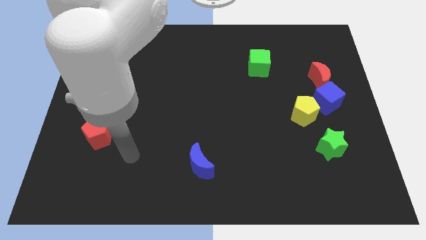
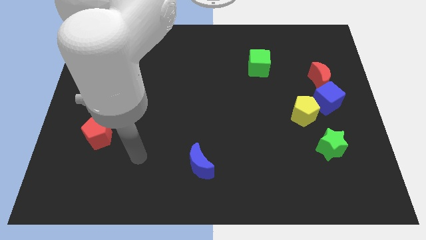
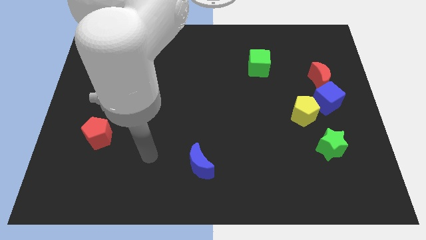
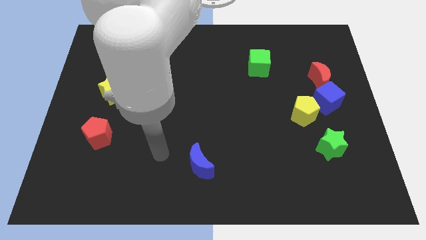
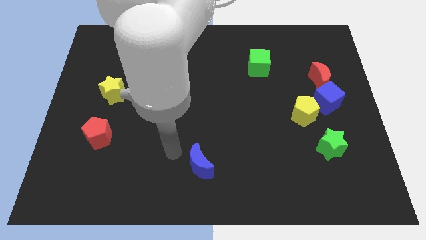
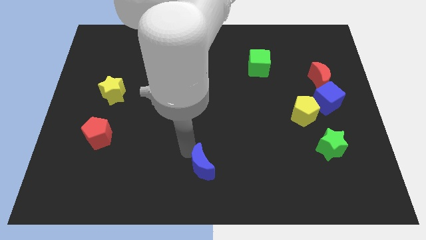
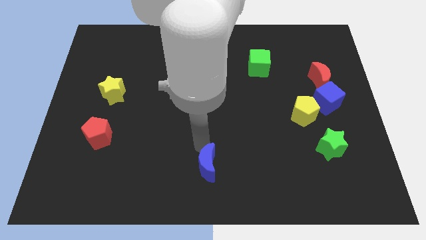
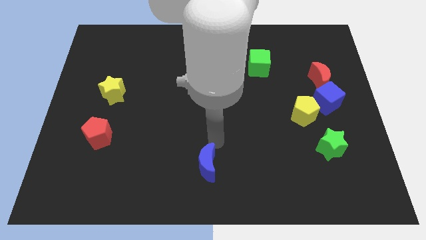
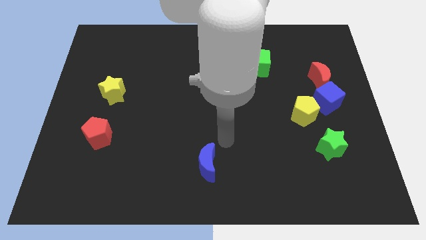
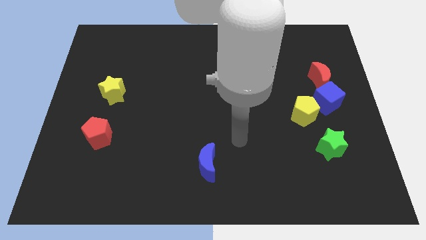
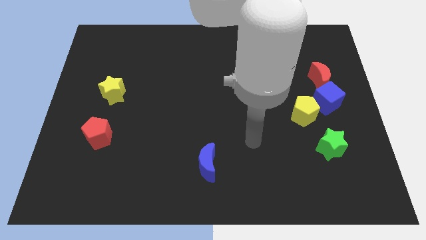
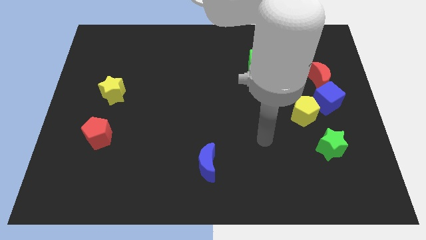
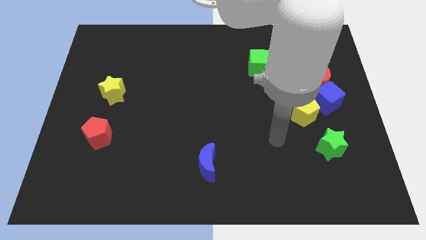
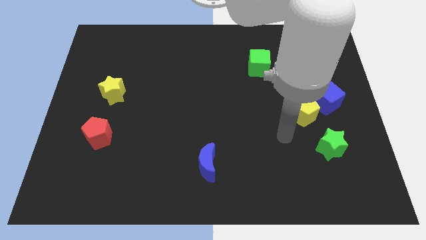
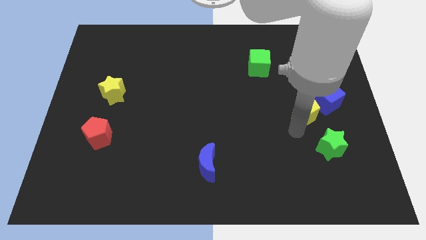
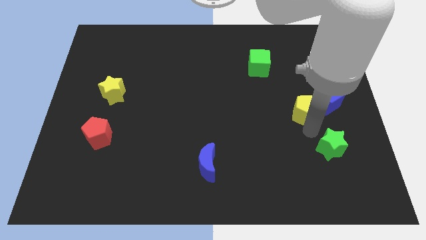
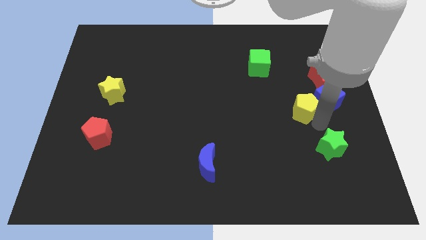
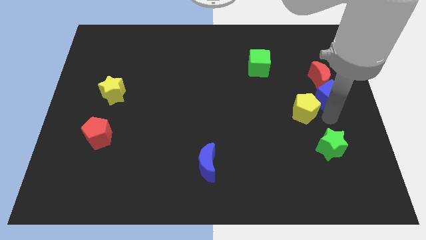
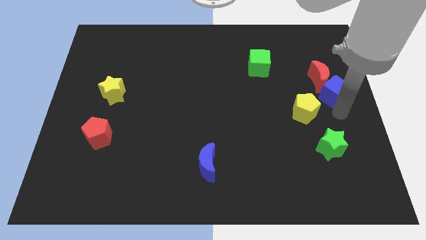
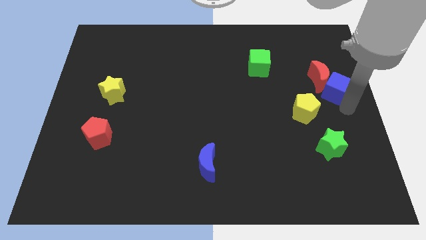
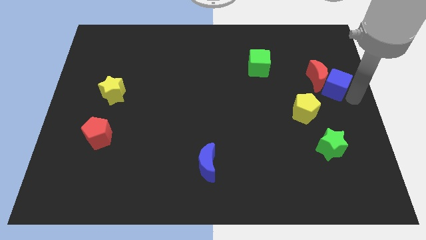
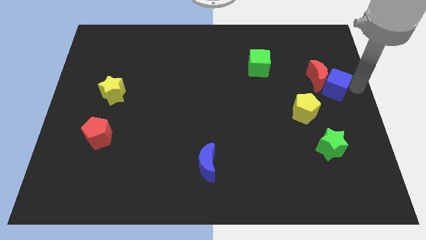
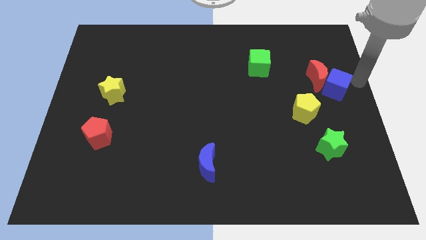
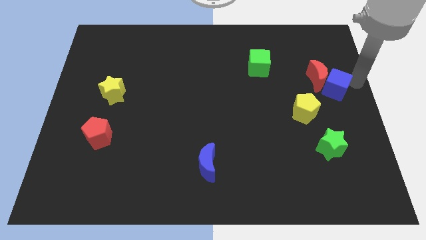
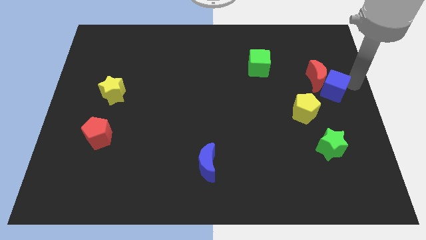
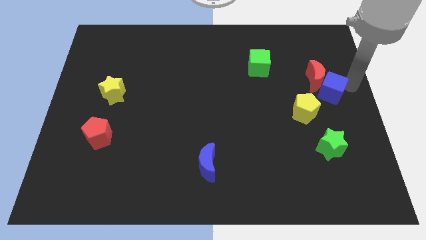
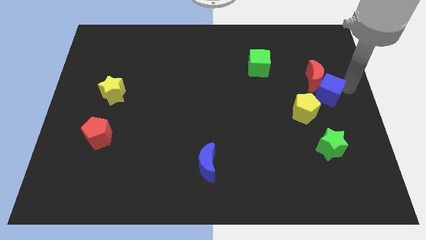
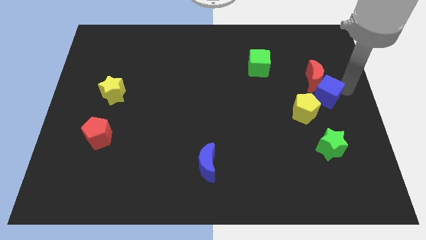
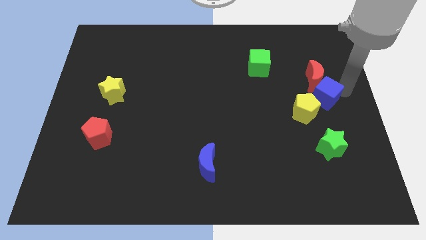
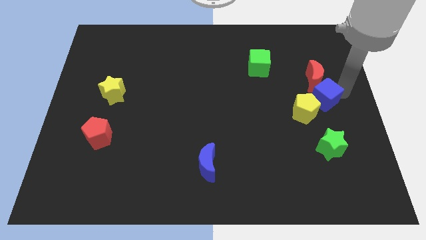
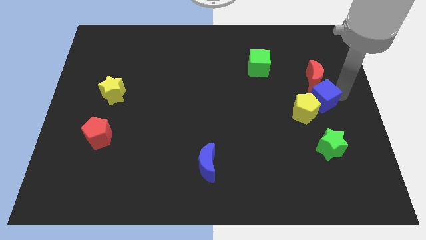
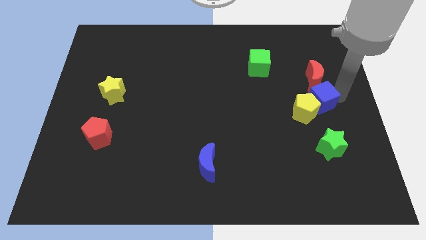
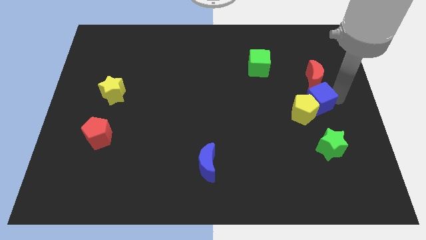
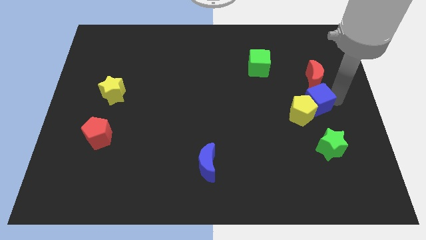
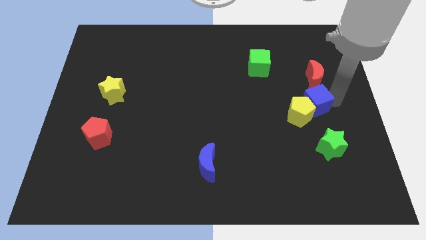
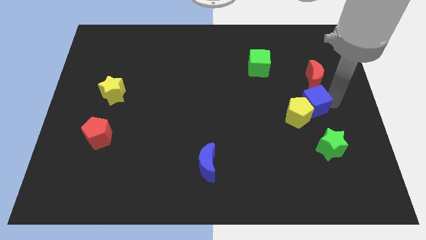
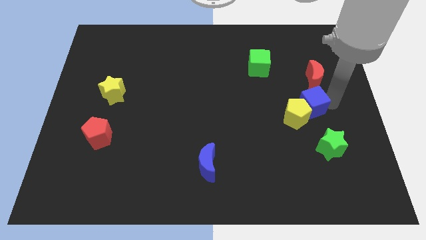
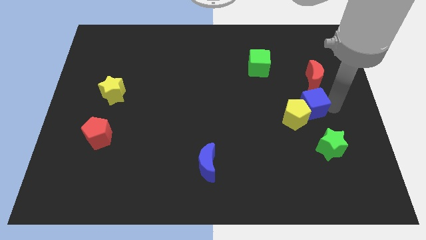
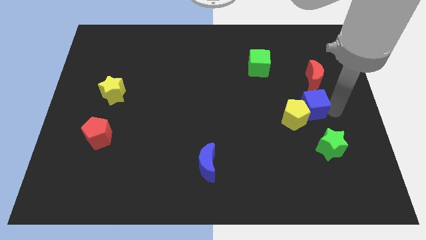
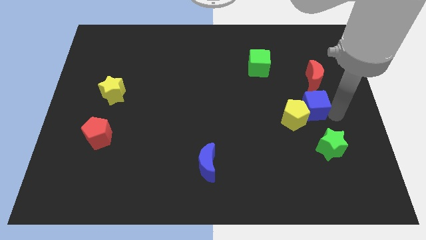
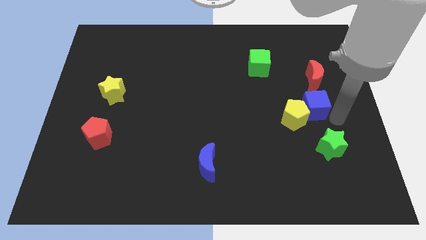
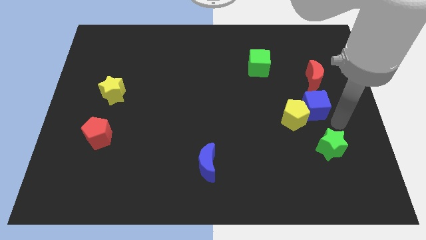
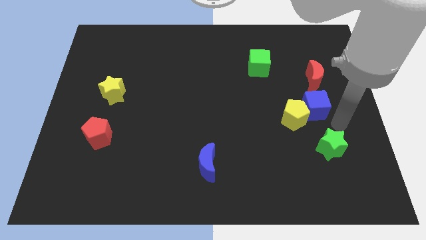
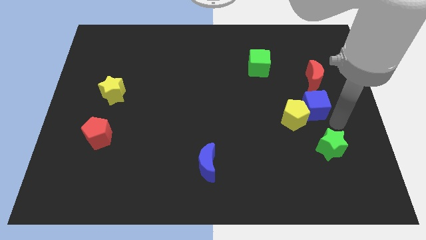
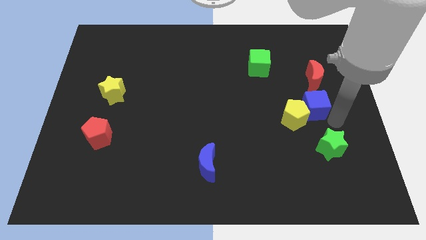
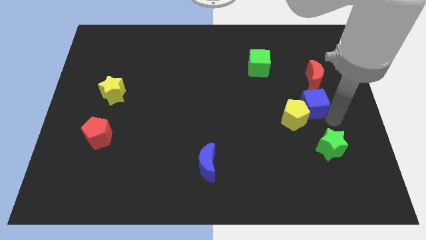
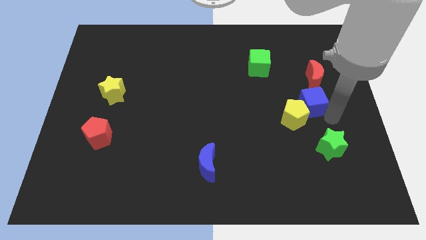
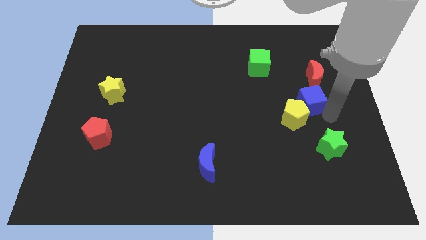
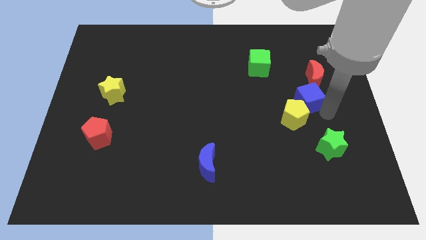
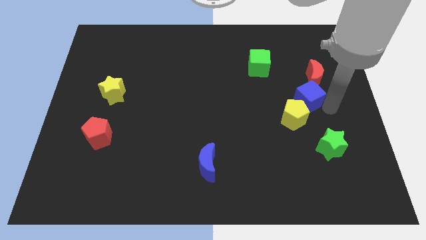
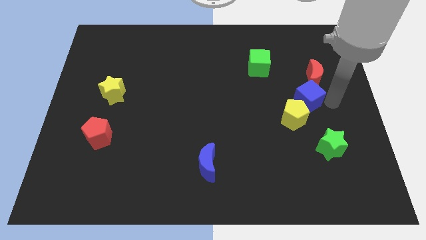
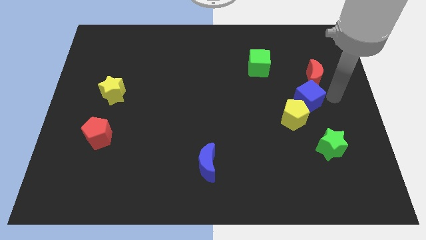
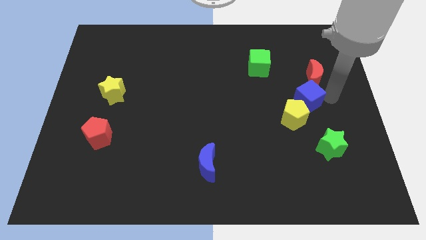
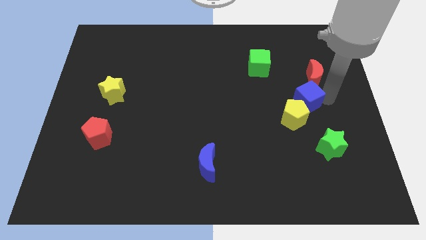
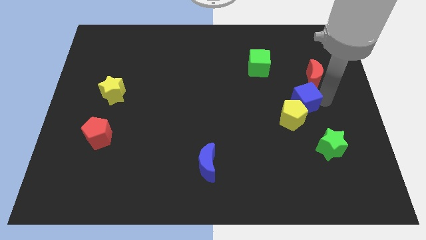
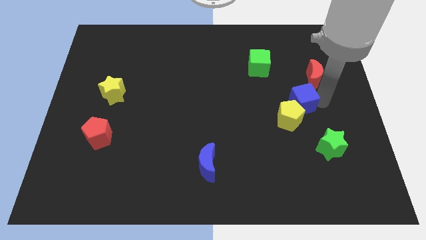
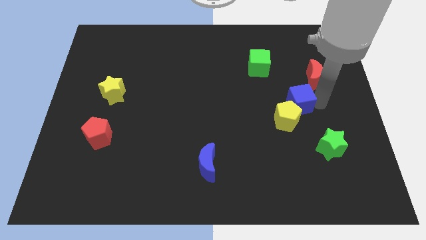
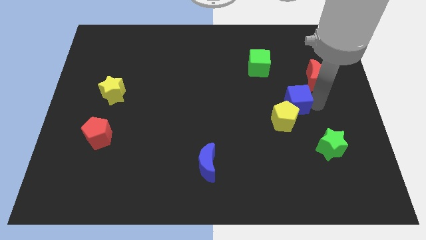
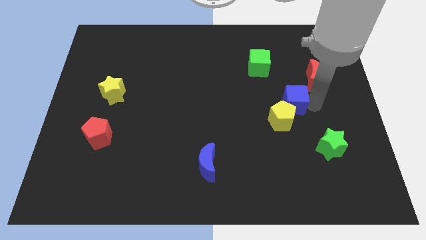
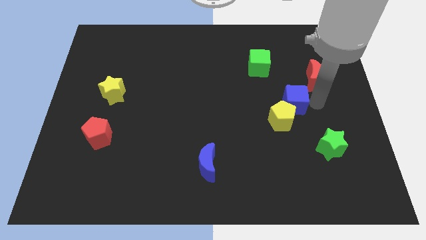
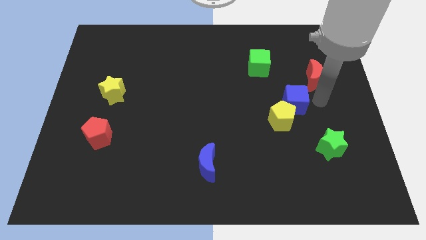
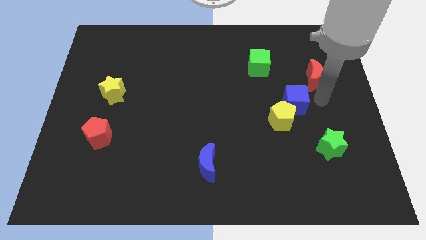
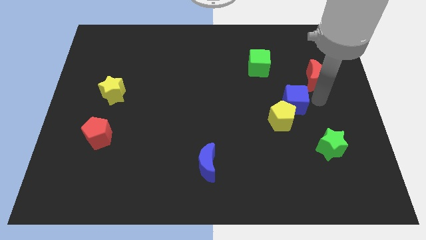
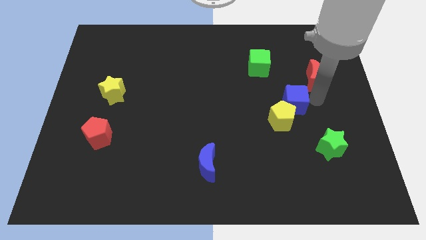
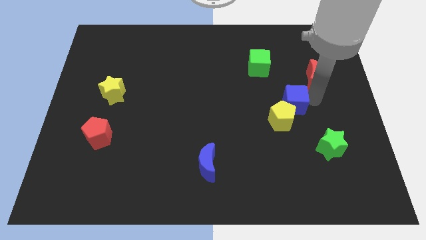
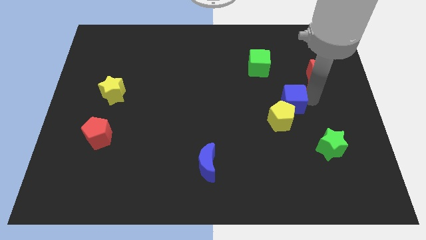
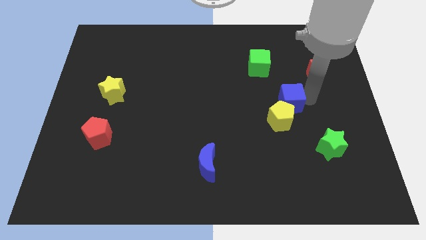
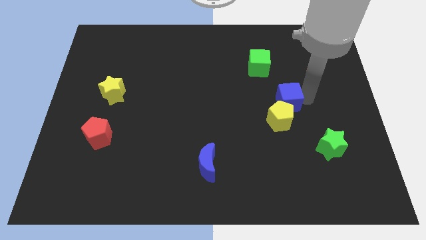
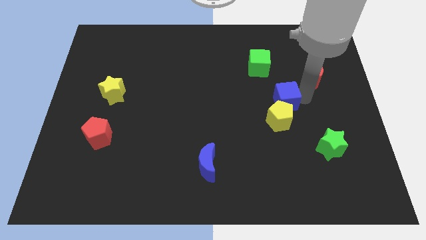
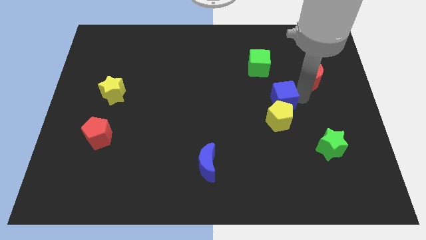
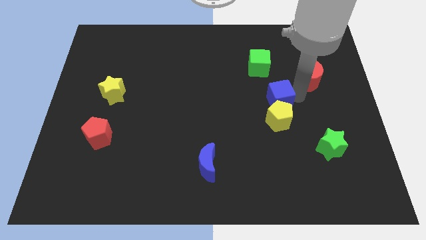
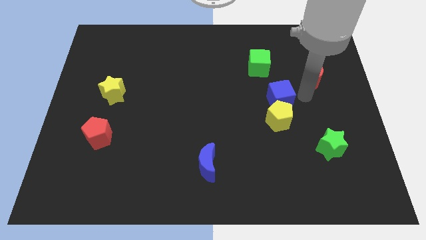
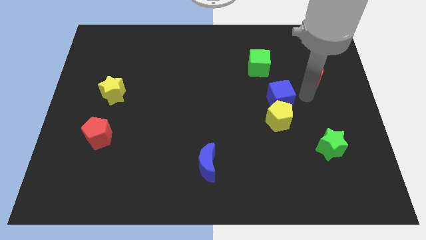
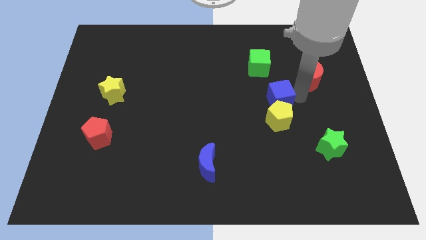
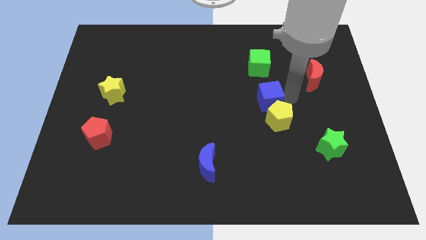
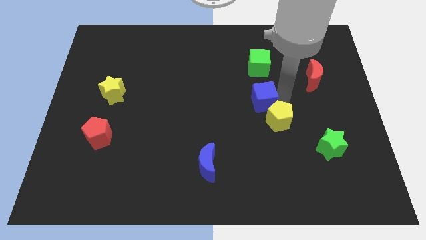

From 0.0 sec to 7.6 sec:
push the blue cube to the middle
